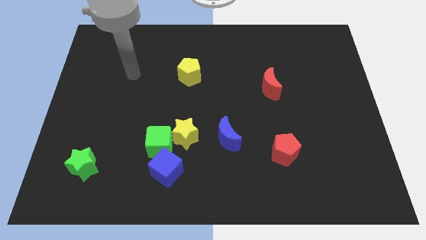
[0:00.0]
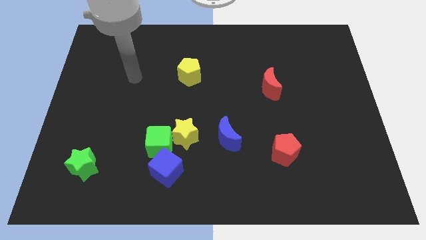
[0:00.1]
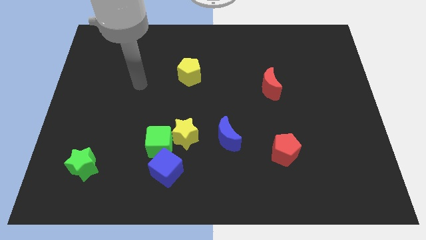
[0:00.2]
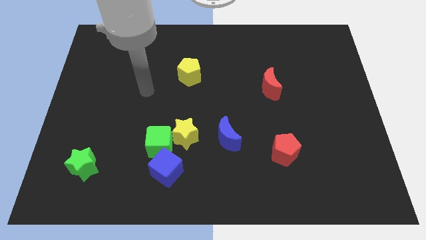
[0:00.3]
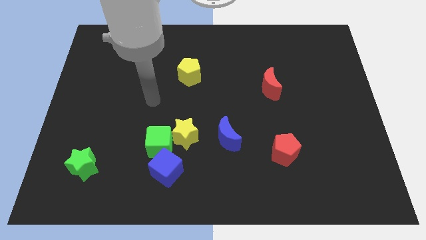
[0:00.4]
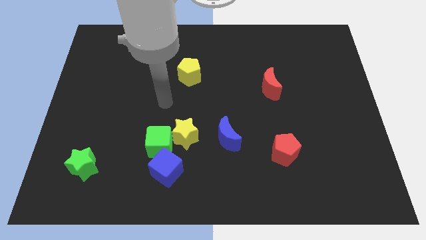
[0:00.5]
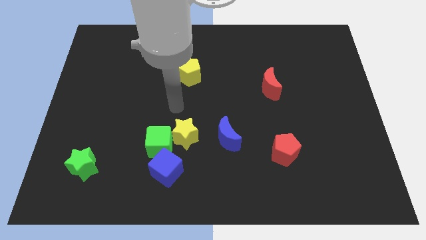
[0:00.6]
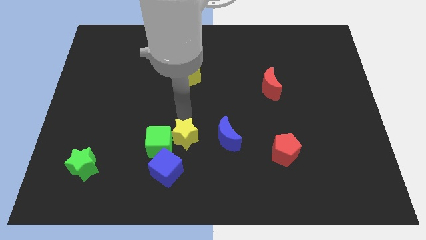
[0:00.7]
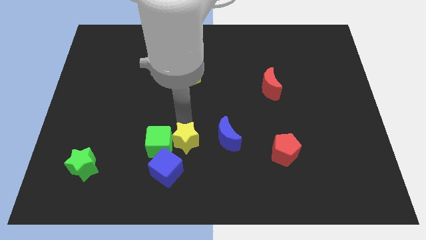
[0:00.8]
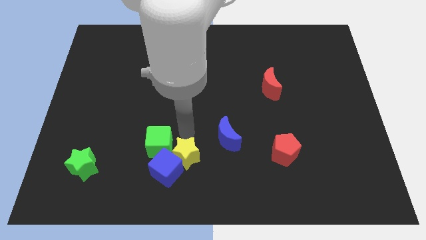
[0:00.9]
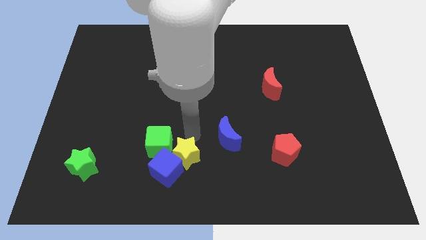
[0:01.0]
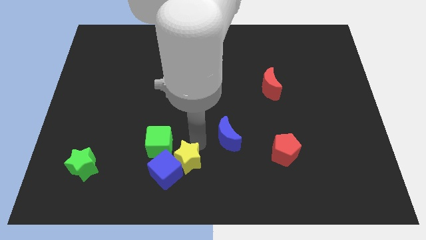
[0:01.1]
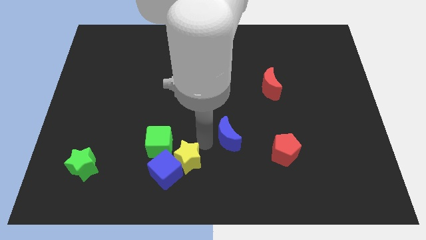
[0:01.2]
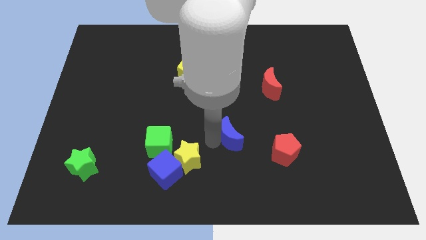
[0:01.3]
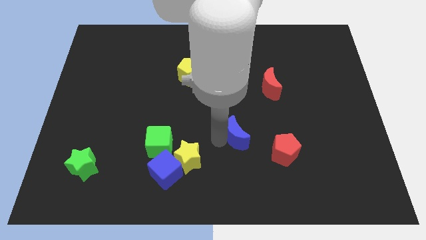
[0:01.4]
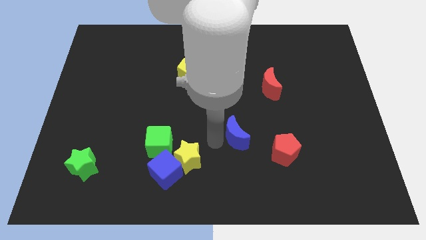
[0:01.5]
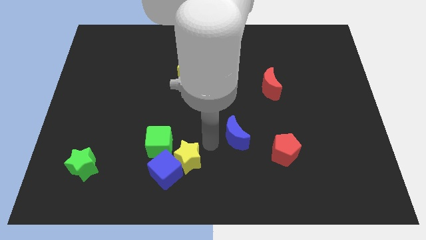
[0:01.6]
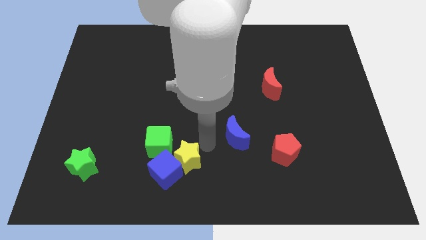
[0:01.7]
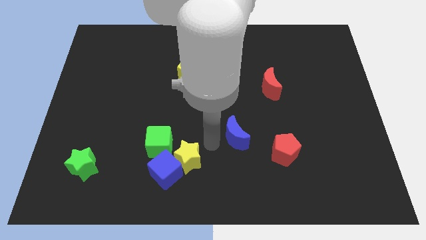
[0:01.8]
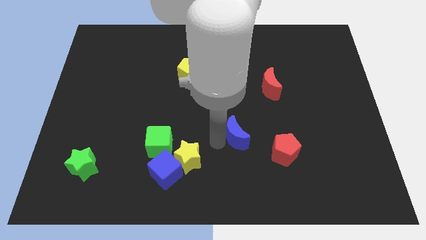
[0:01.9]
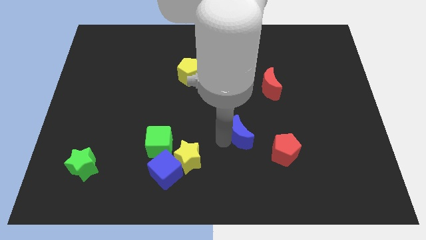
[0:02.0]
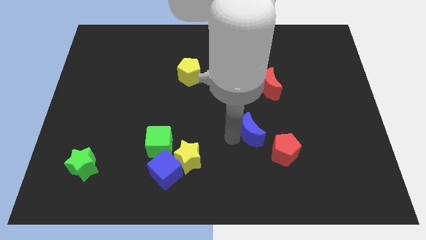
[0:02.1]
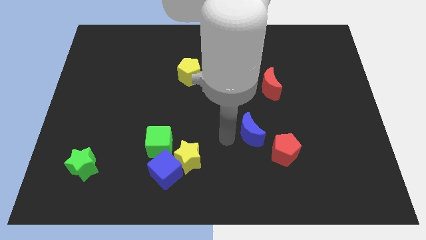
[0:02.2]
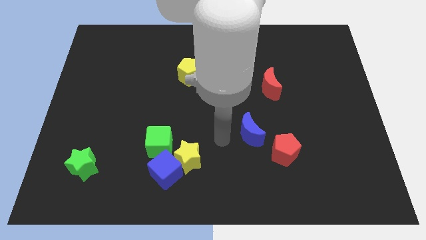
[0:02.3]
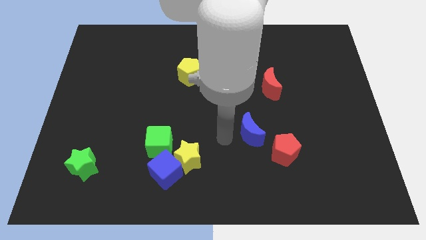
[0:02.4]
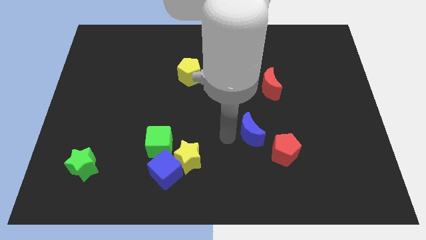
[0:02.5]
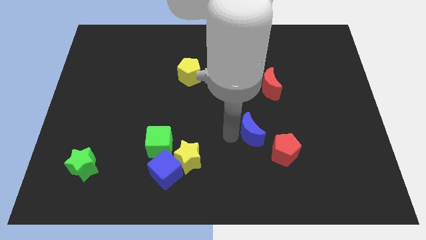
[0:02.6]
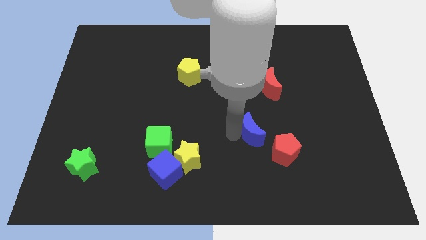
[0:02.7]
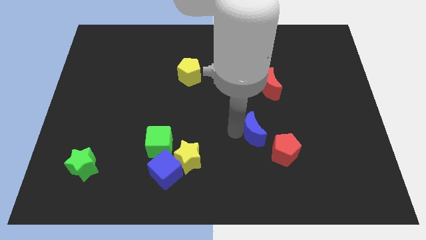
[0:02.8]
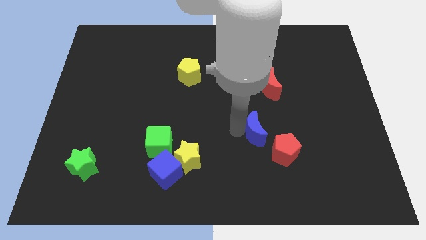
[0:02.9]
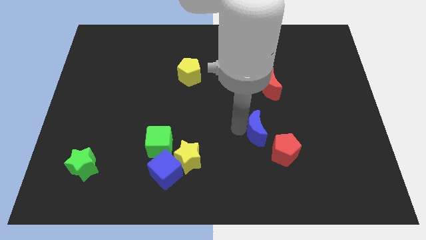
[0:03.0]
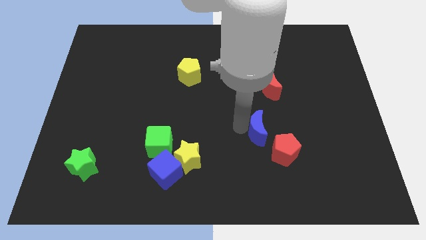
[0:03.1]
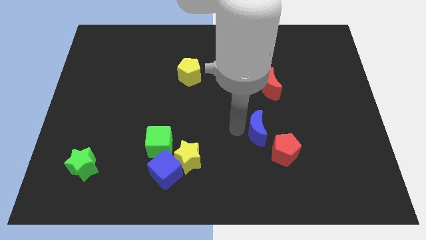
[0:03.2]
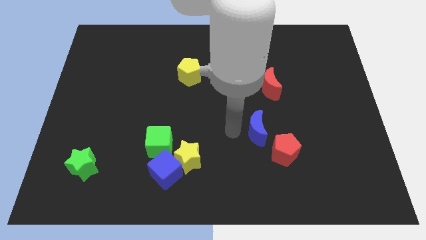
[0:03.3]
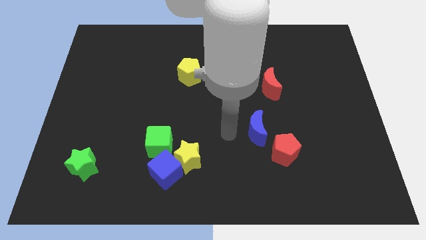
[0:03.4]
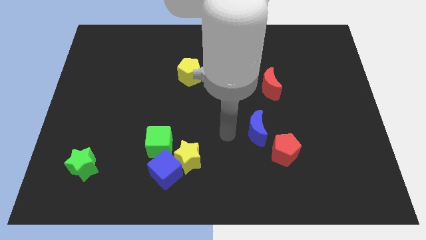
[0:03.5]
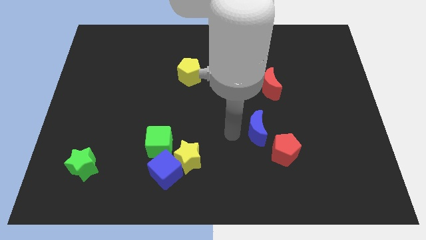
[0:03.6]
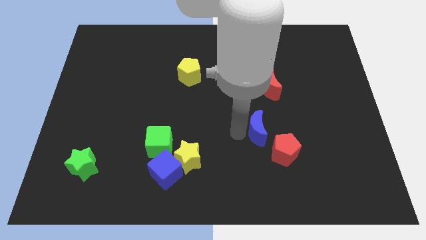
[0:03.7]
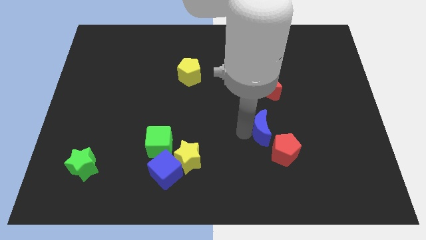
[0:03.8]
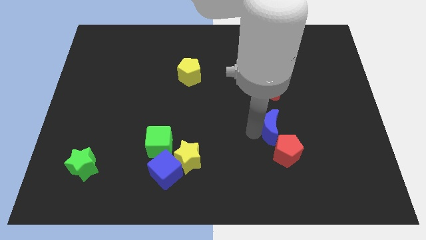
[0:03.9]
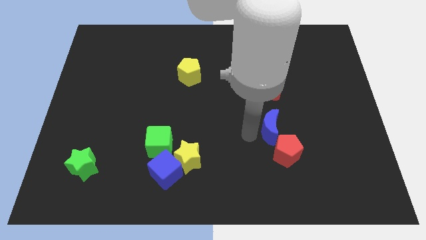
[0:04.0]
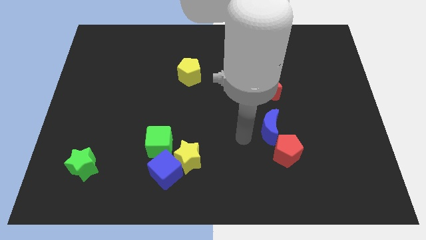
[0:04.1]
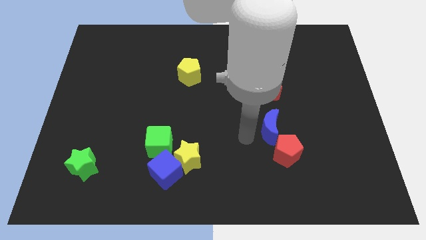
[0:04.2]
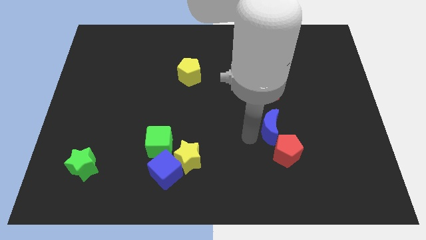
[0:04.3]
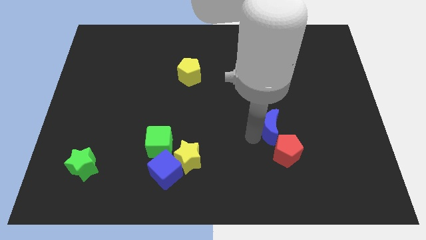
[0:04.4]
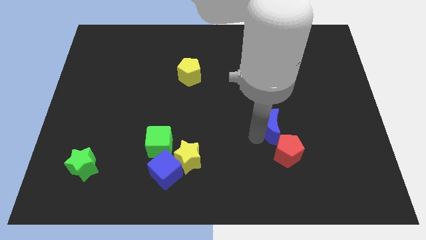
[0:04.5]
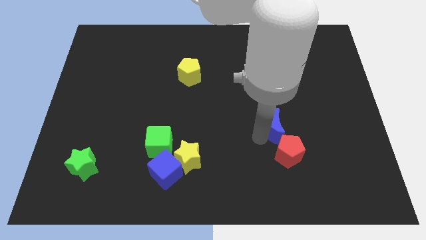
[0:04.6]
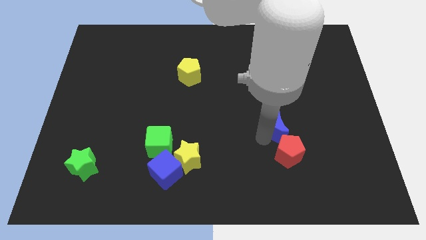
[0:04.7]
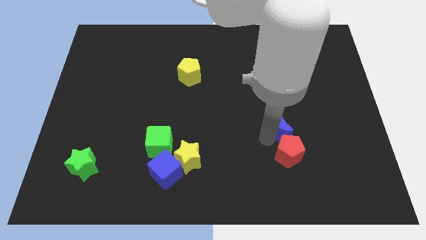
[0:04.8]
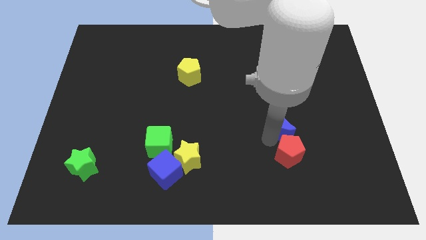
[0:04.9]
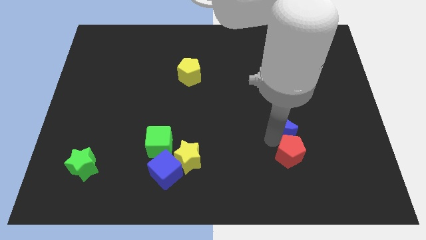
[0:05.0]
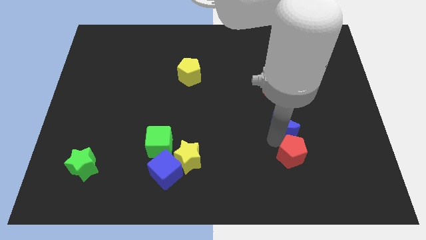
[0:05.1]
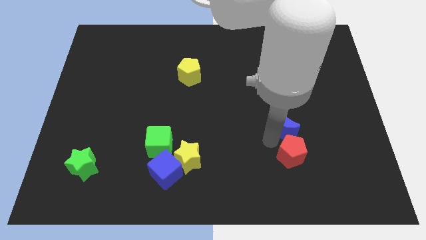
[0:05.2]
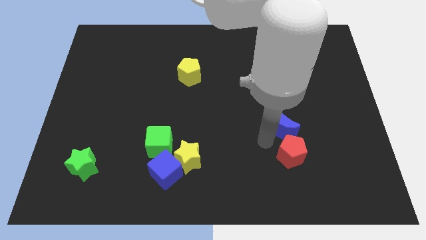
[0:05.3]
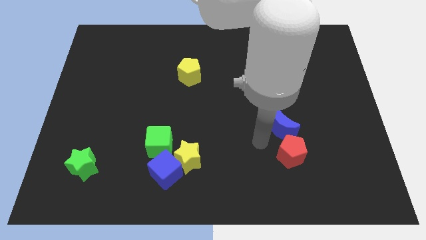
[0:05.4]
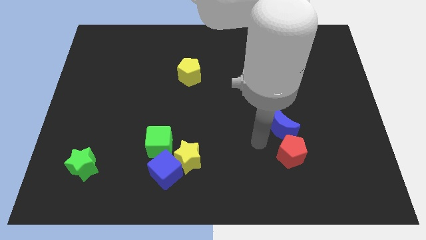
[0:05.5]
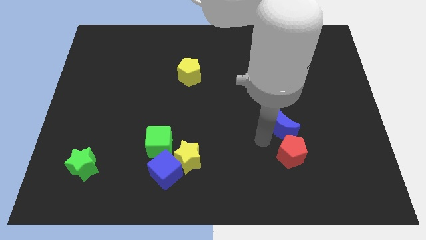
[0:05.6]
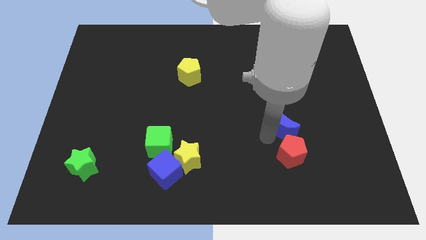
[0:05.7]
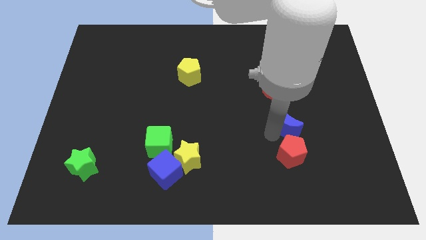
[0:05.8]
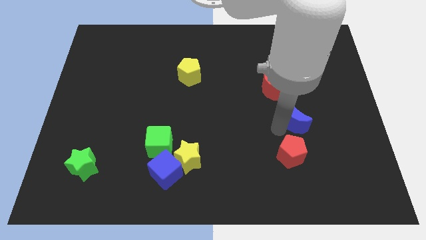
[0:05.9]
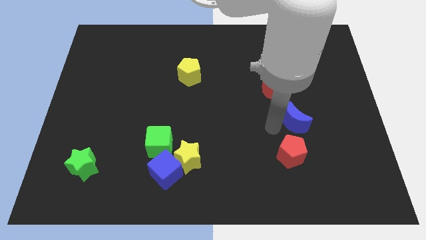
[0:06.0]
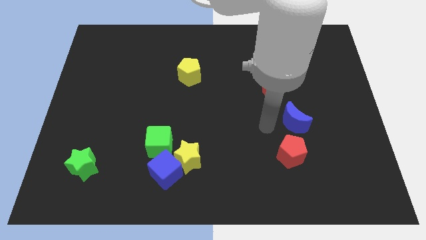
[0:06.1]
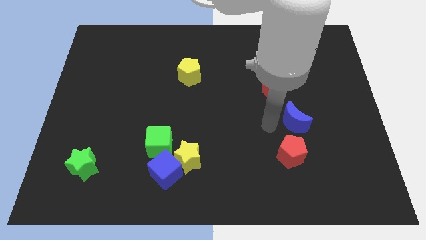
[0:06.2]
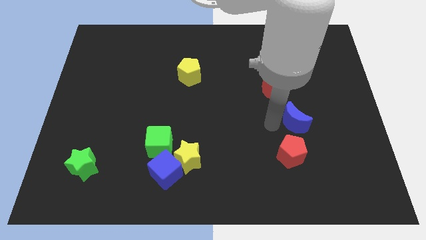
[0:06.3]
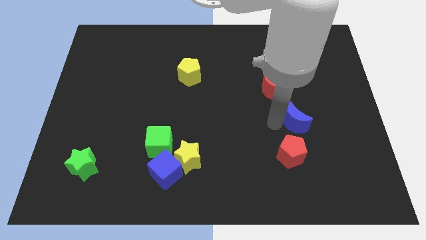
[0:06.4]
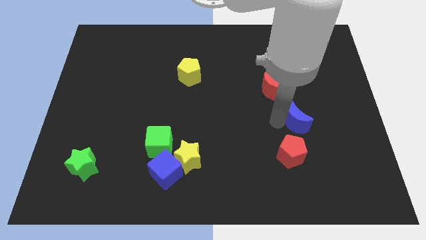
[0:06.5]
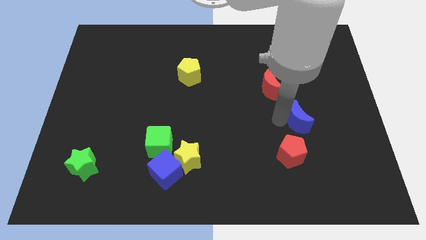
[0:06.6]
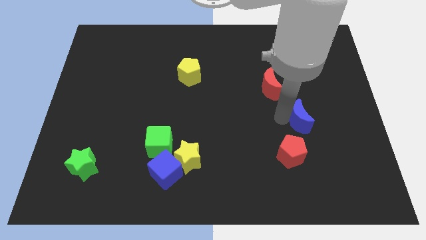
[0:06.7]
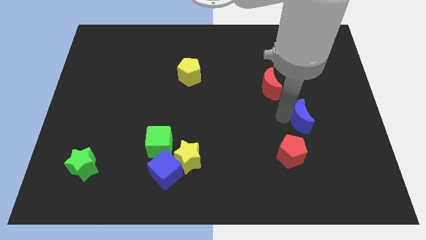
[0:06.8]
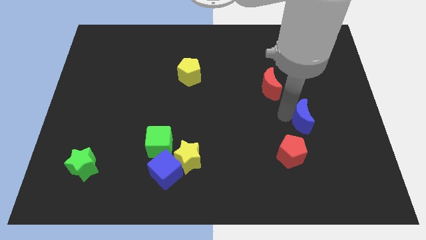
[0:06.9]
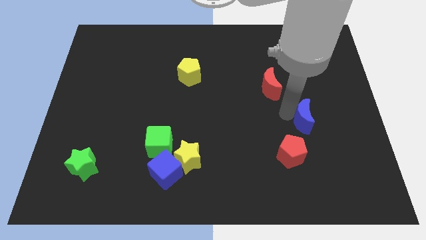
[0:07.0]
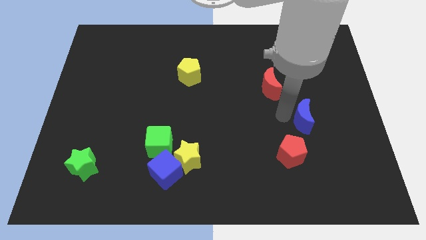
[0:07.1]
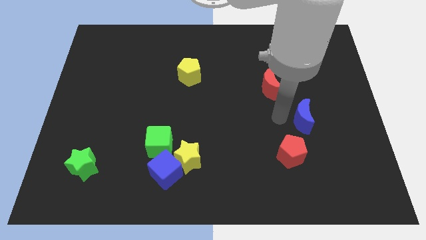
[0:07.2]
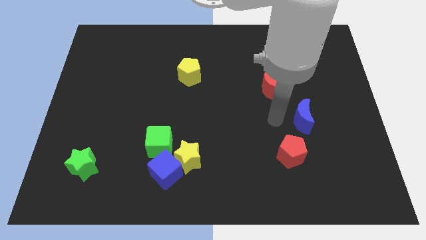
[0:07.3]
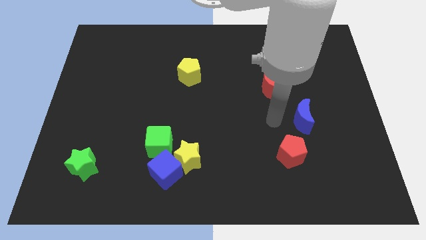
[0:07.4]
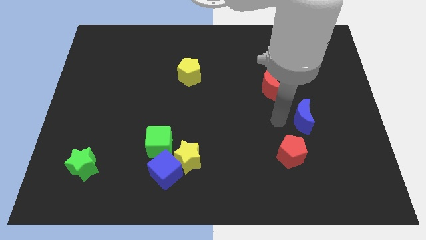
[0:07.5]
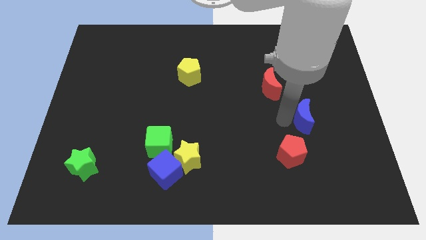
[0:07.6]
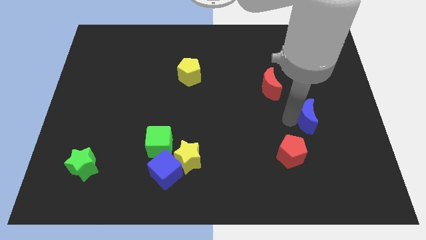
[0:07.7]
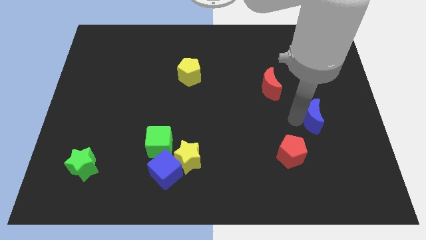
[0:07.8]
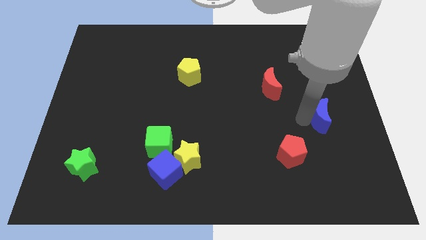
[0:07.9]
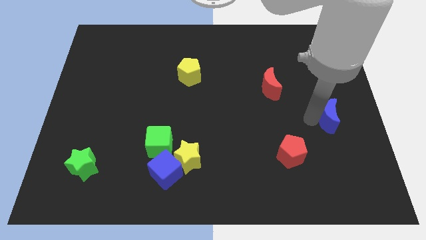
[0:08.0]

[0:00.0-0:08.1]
put the blue moon to the right side of the board
